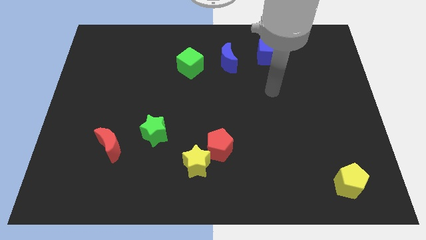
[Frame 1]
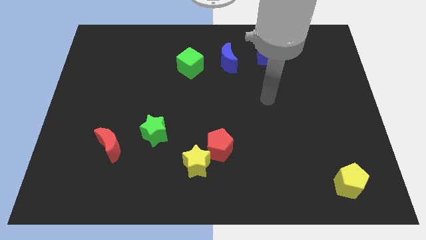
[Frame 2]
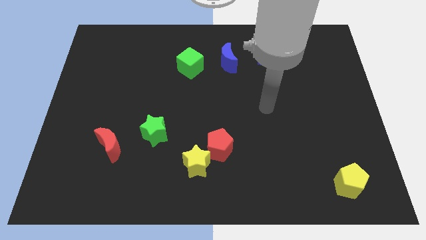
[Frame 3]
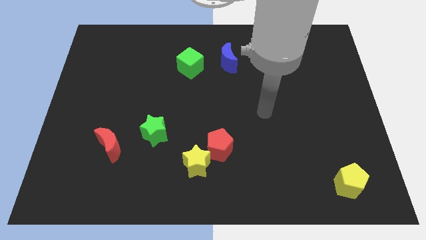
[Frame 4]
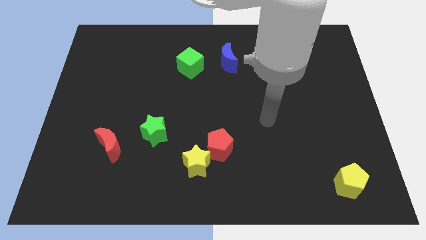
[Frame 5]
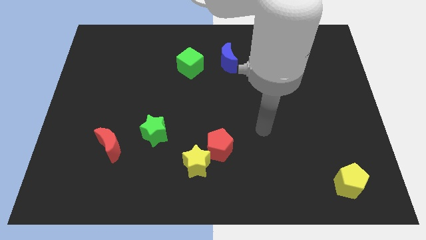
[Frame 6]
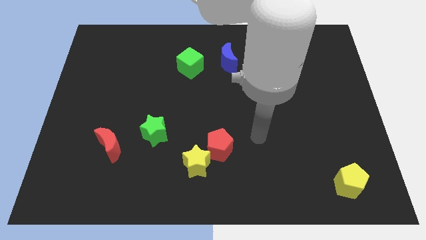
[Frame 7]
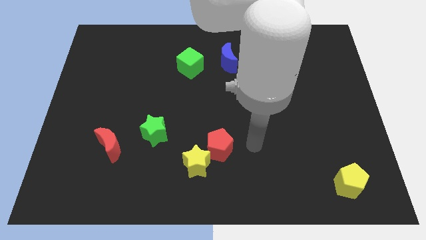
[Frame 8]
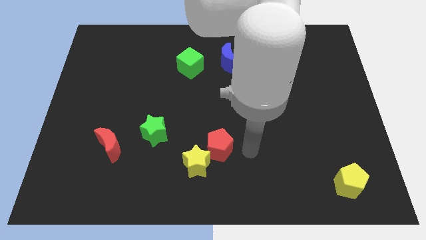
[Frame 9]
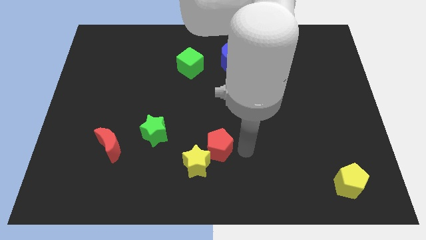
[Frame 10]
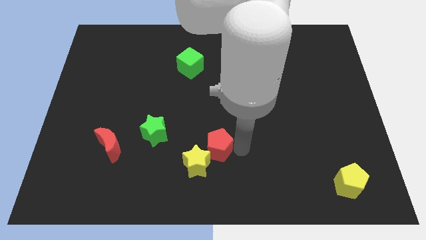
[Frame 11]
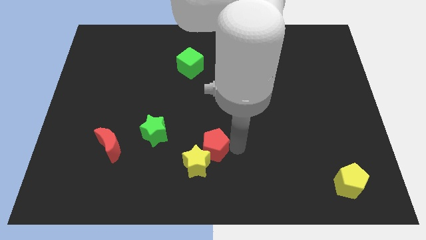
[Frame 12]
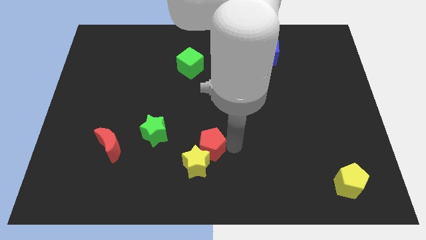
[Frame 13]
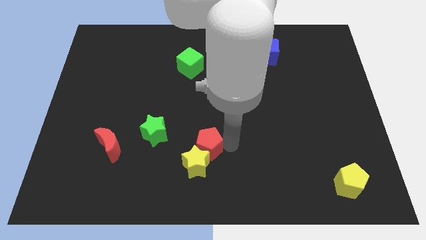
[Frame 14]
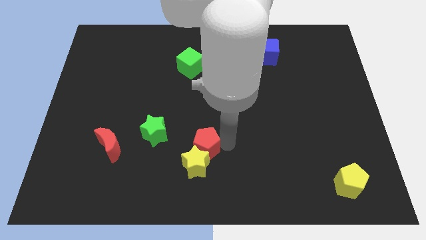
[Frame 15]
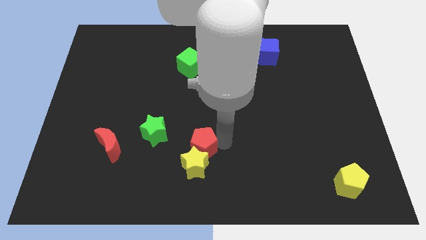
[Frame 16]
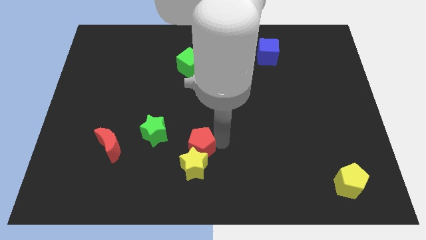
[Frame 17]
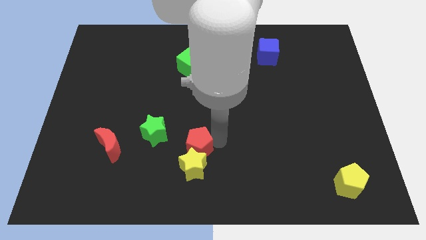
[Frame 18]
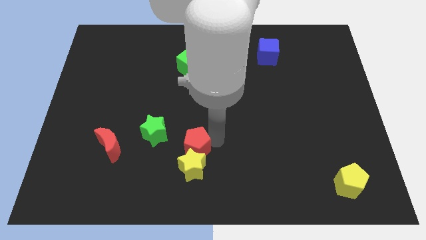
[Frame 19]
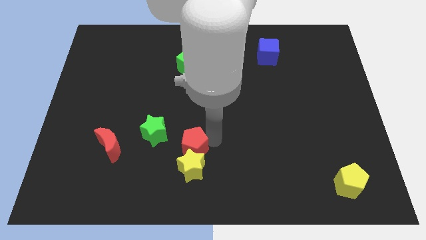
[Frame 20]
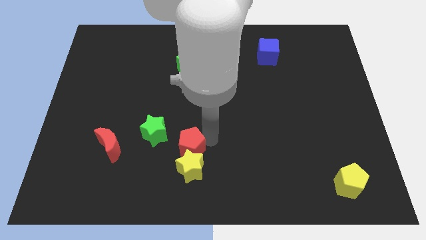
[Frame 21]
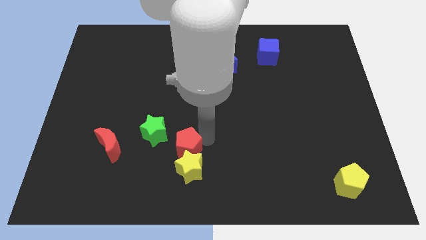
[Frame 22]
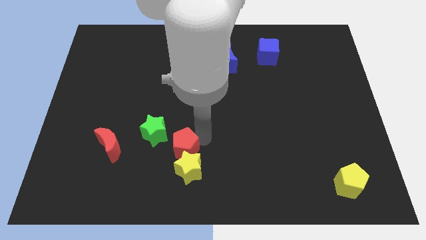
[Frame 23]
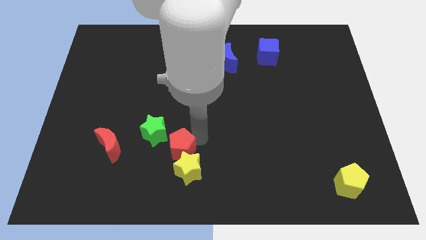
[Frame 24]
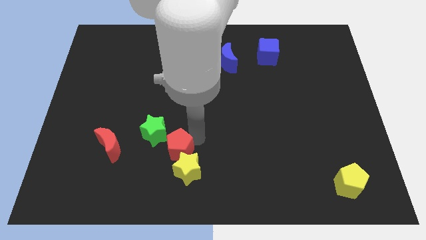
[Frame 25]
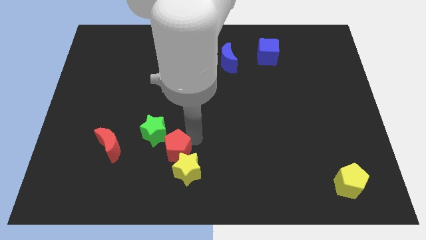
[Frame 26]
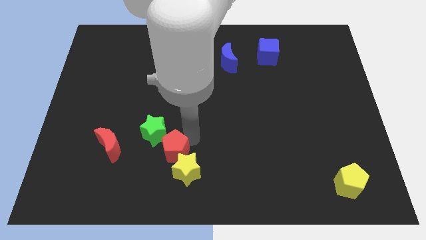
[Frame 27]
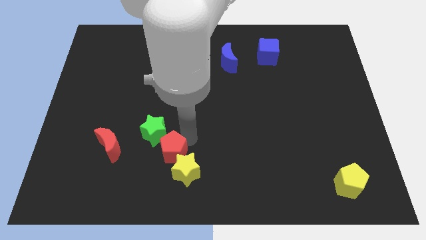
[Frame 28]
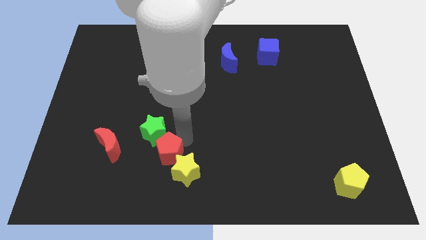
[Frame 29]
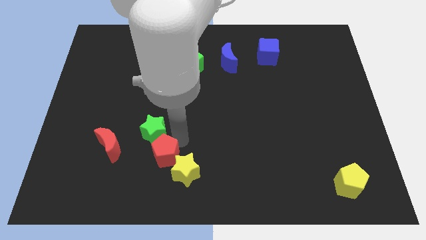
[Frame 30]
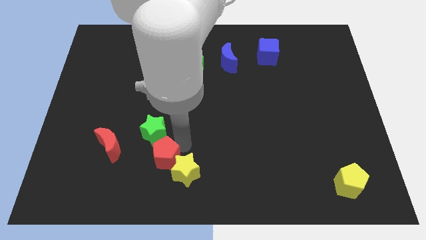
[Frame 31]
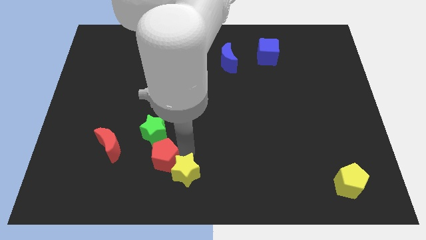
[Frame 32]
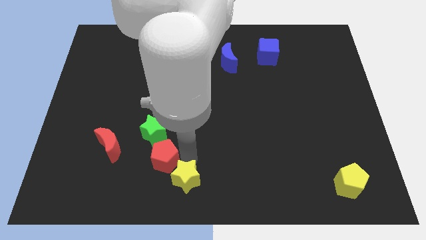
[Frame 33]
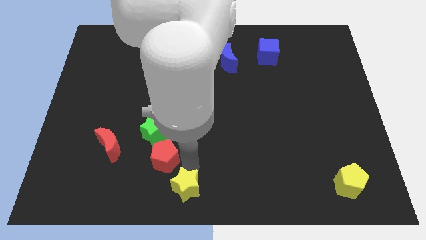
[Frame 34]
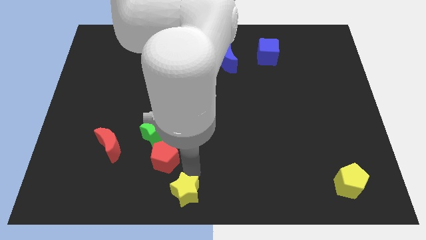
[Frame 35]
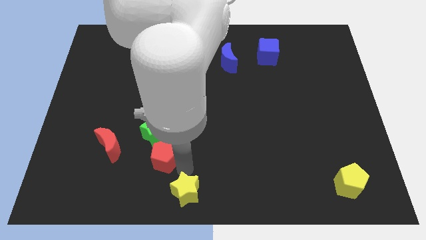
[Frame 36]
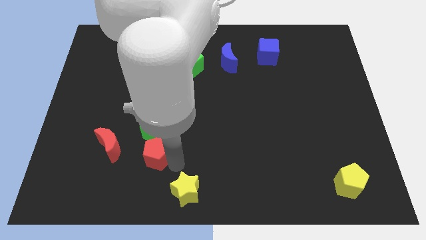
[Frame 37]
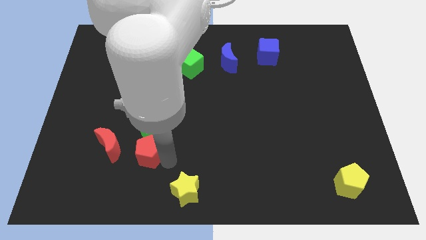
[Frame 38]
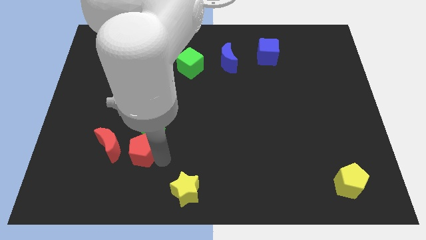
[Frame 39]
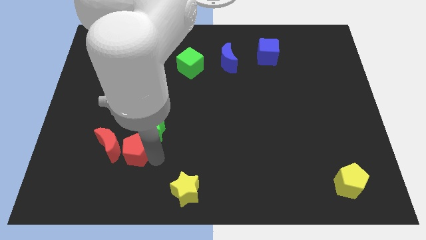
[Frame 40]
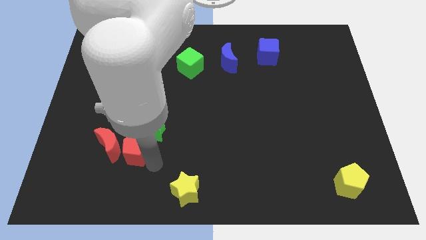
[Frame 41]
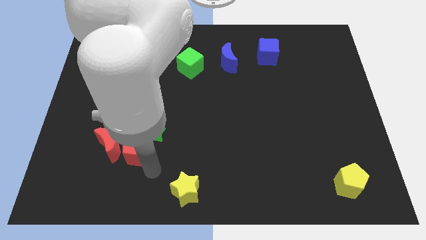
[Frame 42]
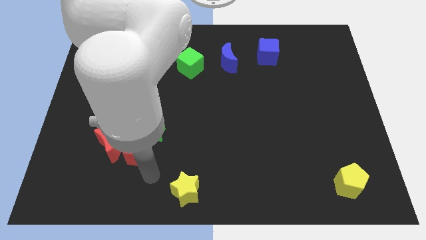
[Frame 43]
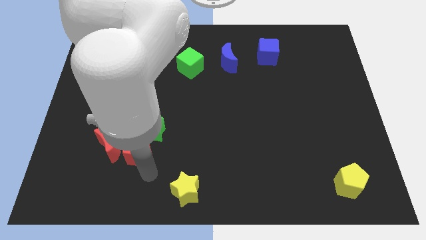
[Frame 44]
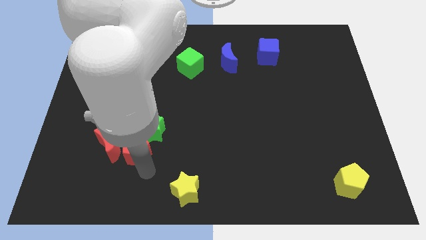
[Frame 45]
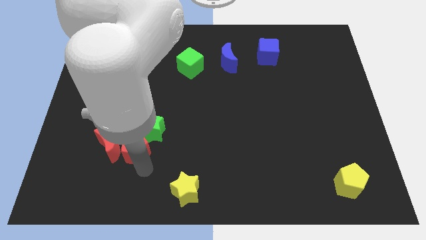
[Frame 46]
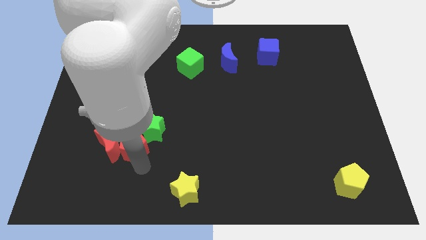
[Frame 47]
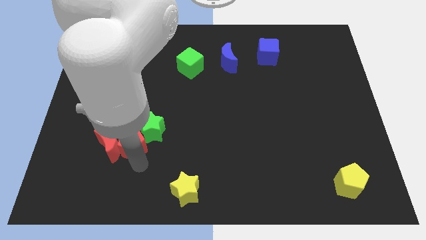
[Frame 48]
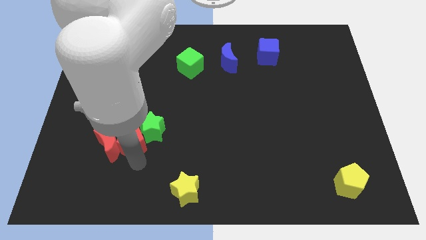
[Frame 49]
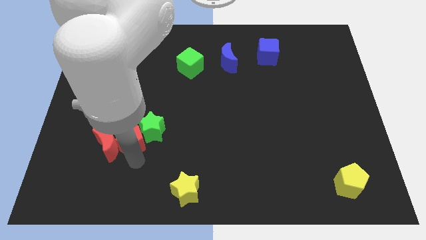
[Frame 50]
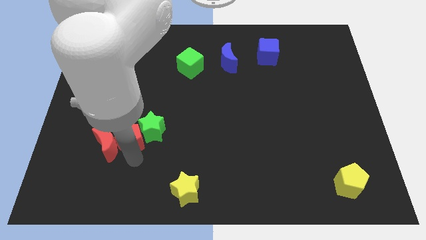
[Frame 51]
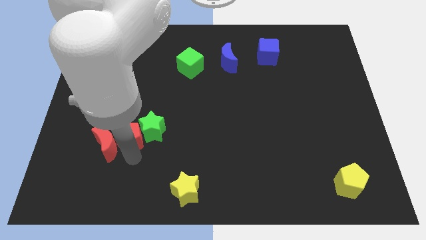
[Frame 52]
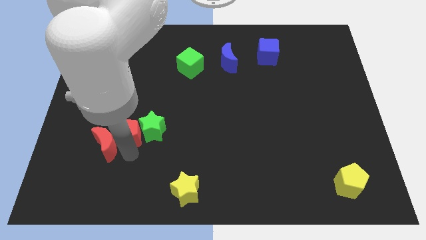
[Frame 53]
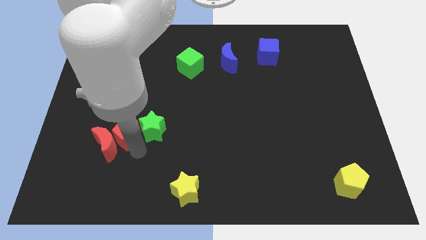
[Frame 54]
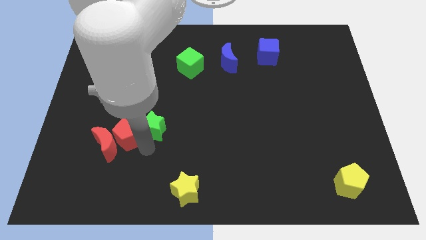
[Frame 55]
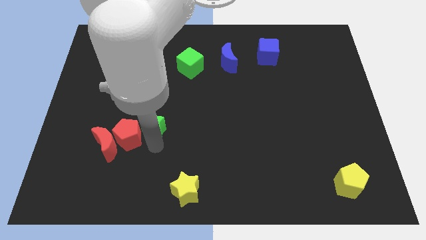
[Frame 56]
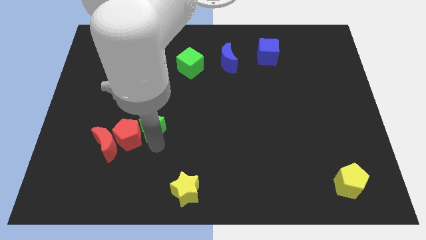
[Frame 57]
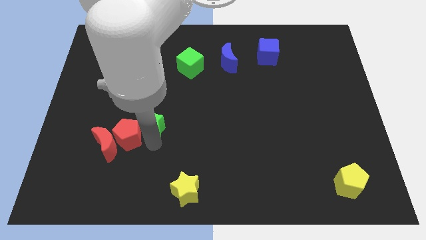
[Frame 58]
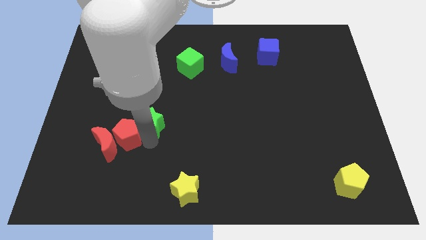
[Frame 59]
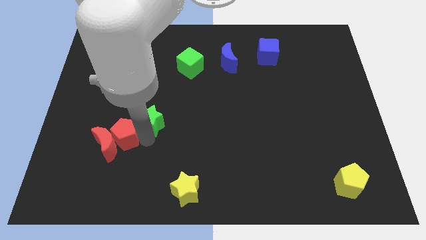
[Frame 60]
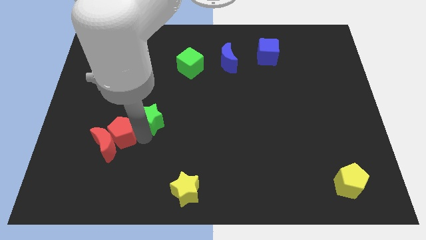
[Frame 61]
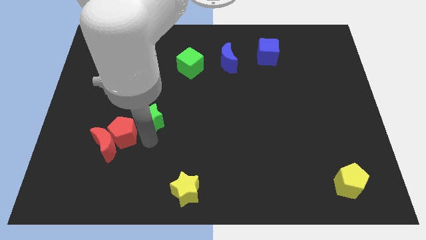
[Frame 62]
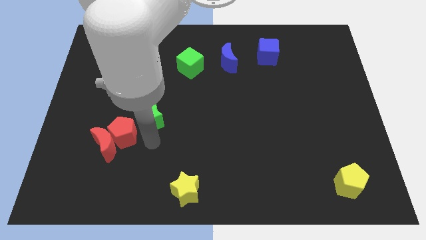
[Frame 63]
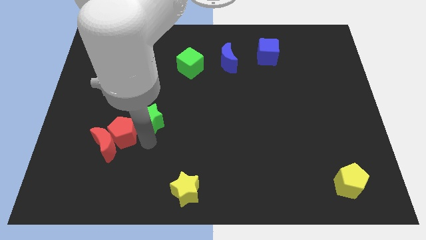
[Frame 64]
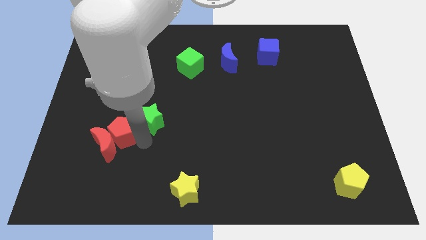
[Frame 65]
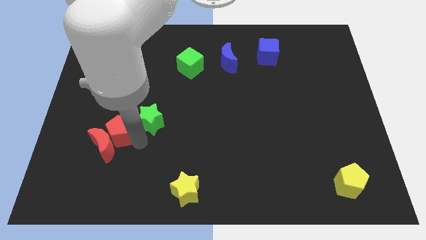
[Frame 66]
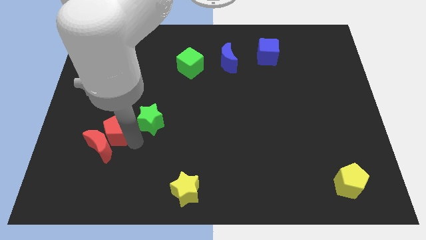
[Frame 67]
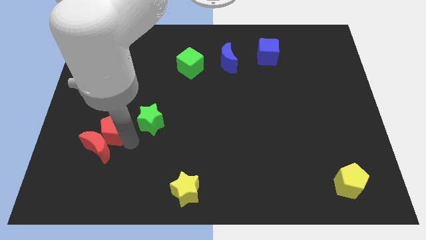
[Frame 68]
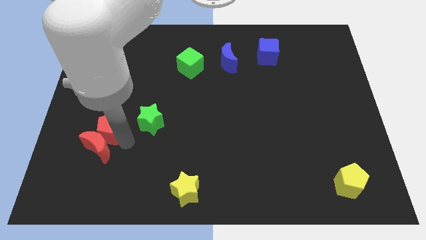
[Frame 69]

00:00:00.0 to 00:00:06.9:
push the red pentagon to the top left of the red moon

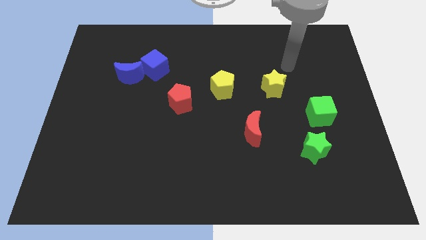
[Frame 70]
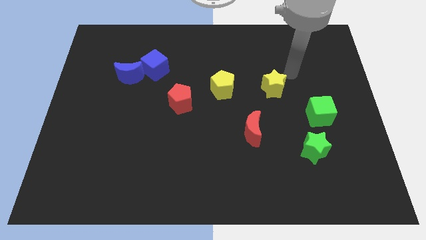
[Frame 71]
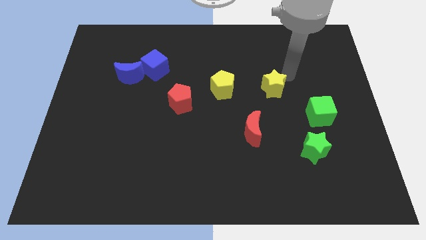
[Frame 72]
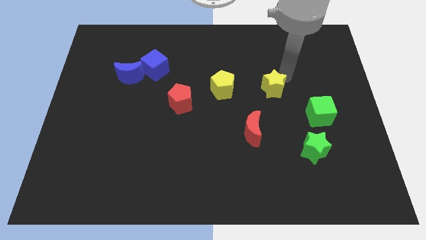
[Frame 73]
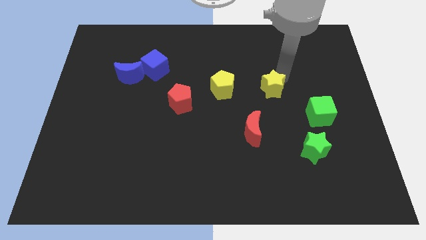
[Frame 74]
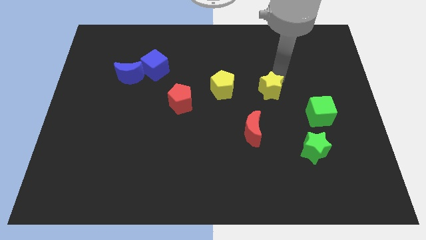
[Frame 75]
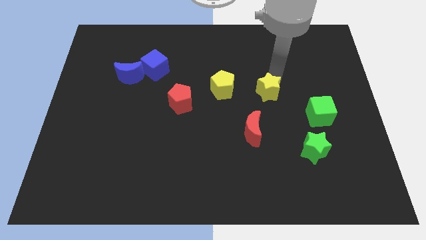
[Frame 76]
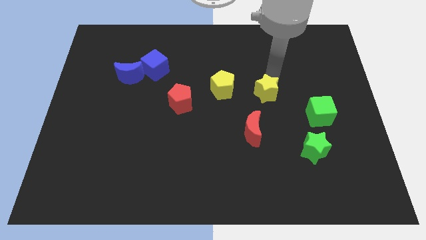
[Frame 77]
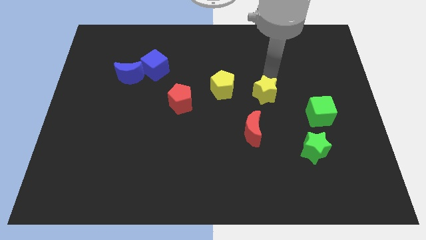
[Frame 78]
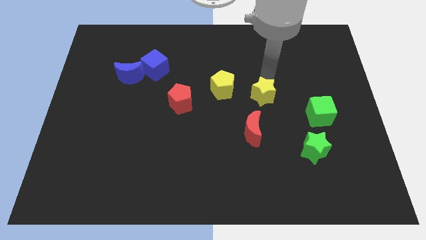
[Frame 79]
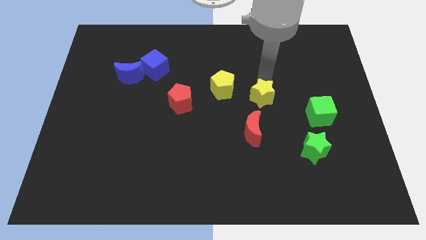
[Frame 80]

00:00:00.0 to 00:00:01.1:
push the yellow star to the bottom right of the yellow pentagon
